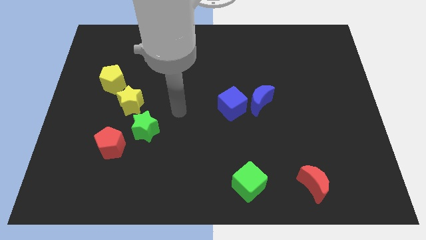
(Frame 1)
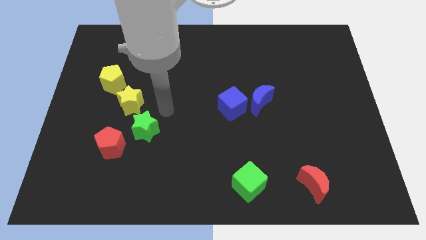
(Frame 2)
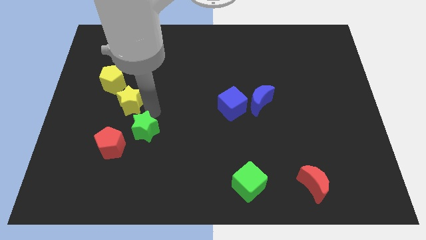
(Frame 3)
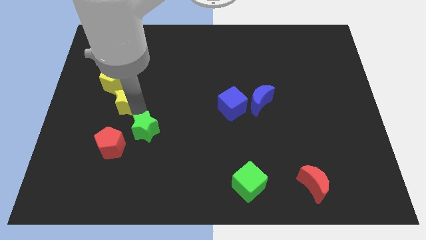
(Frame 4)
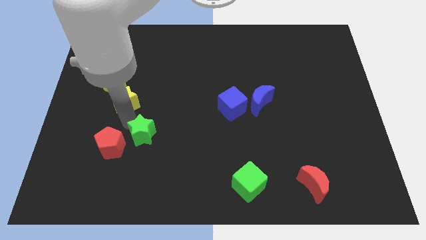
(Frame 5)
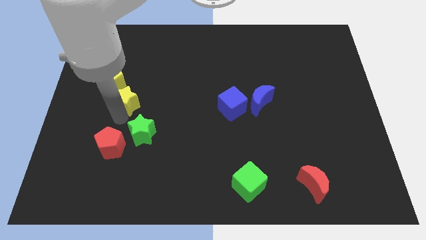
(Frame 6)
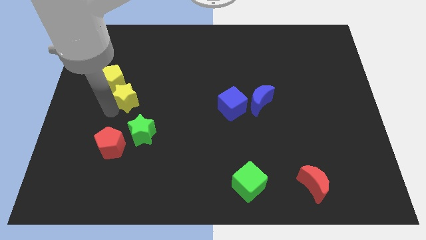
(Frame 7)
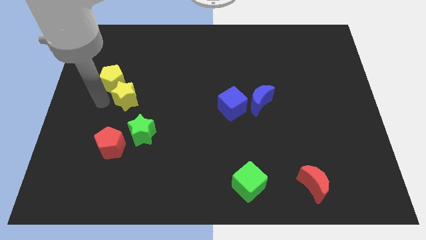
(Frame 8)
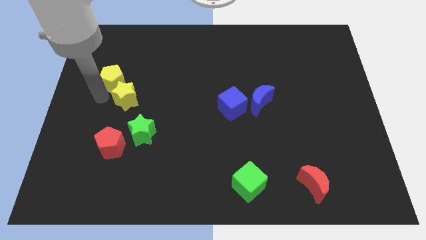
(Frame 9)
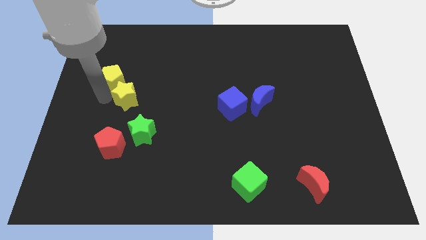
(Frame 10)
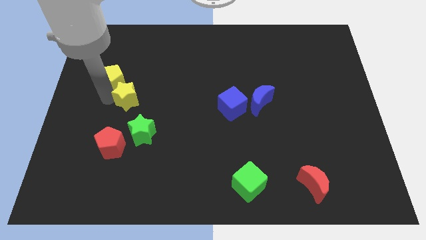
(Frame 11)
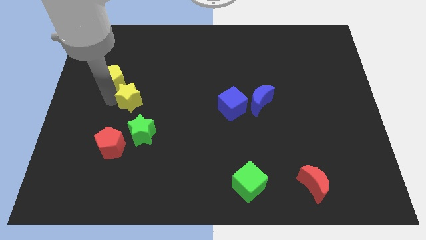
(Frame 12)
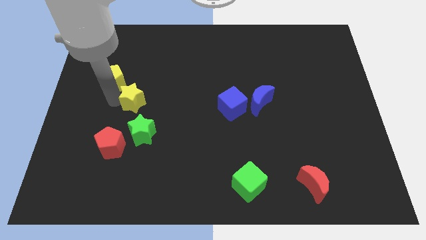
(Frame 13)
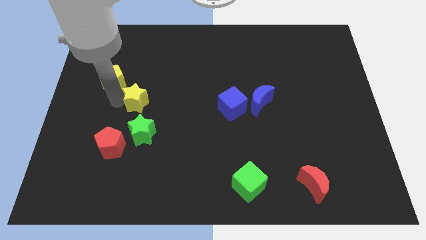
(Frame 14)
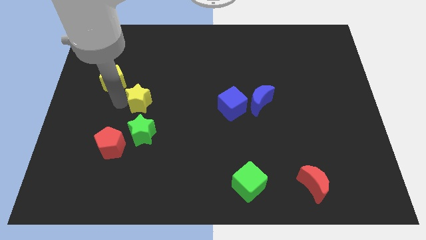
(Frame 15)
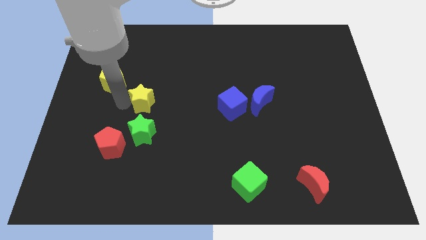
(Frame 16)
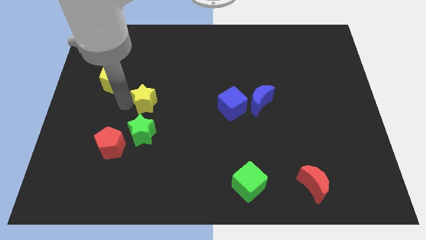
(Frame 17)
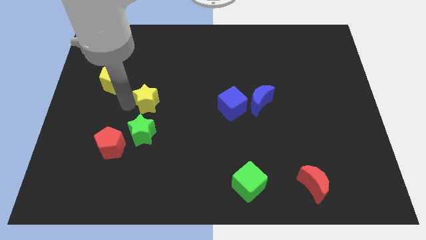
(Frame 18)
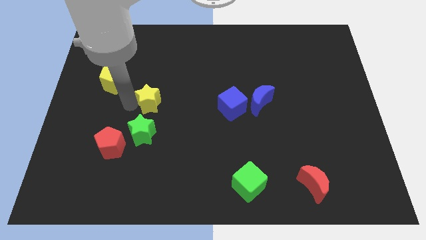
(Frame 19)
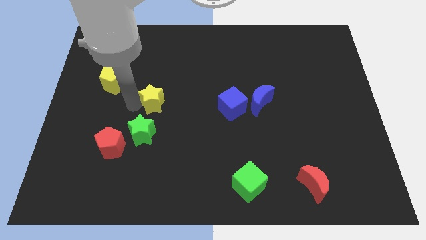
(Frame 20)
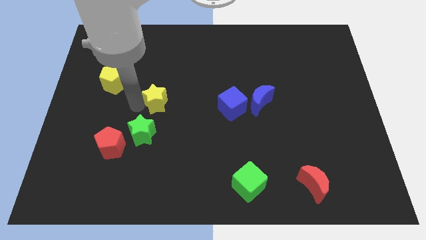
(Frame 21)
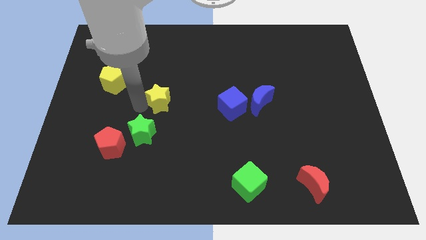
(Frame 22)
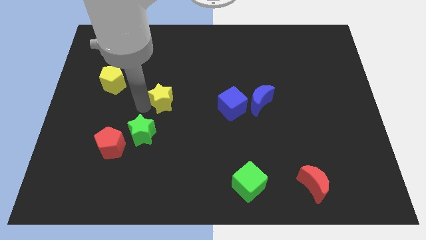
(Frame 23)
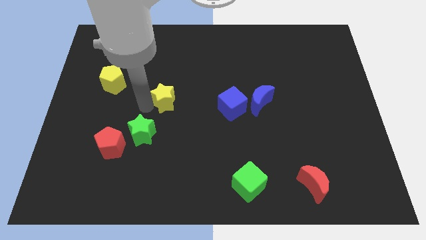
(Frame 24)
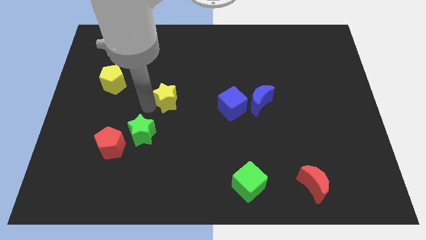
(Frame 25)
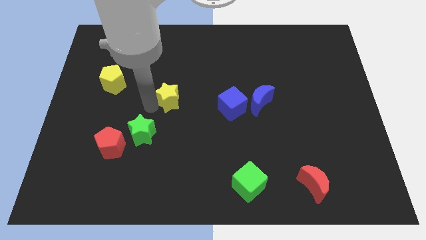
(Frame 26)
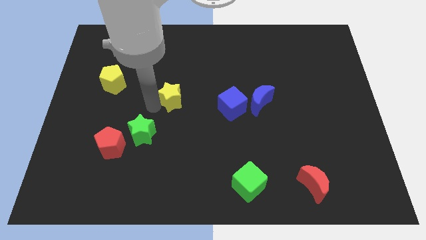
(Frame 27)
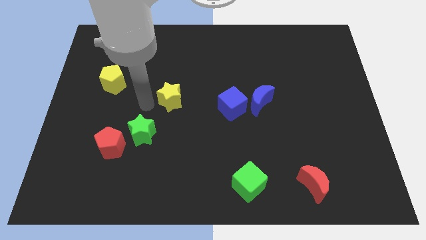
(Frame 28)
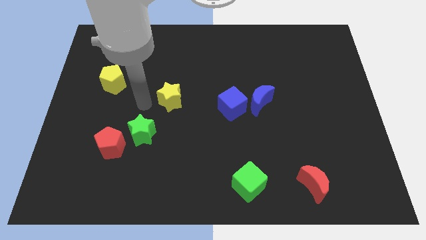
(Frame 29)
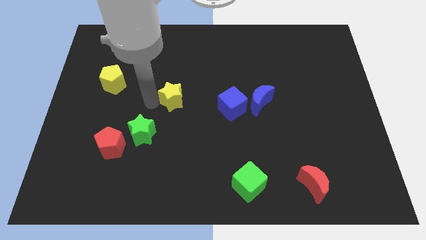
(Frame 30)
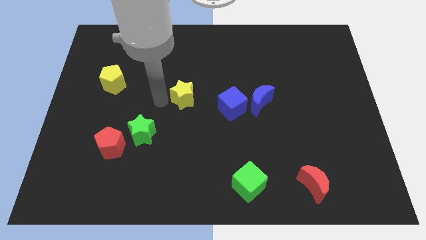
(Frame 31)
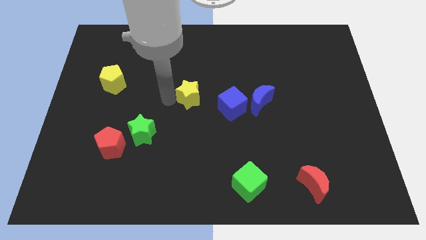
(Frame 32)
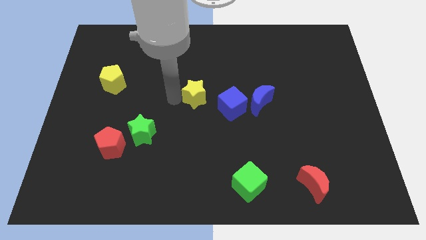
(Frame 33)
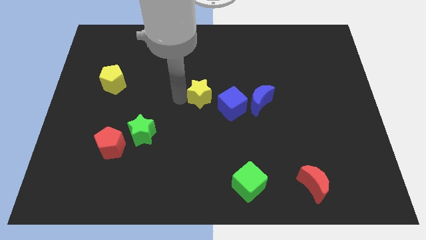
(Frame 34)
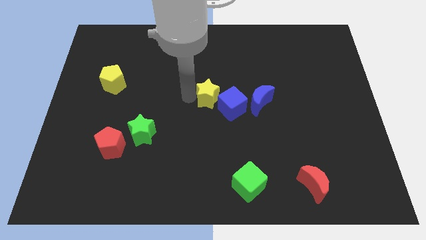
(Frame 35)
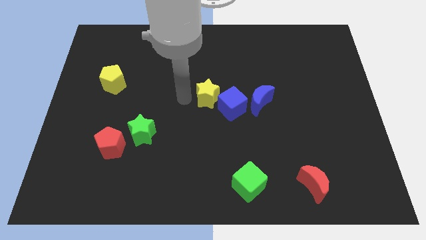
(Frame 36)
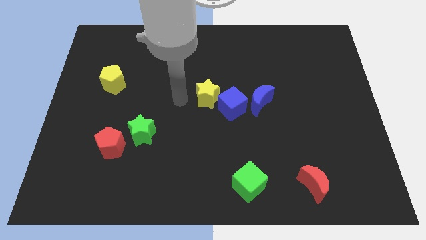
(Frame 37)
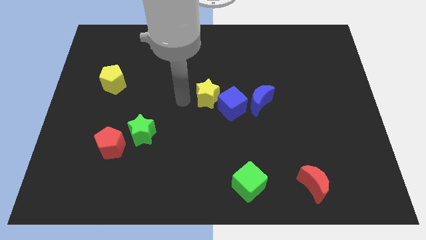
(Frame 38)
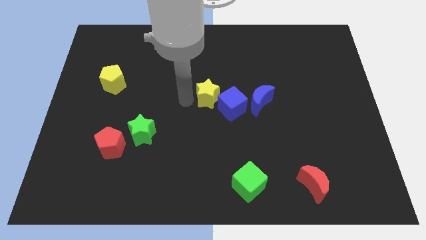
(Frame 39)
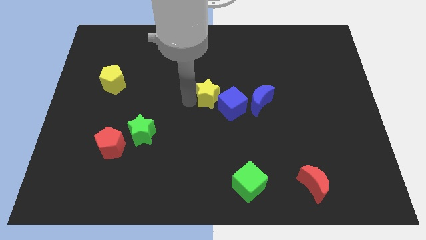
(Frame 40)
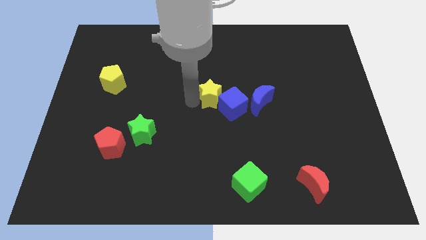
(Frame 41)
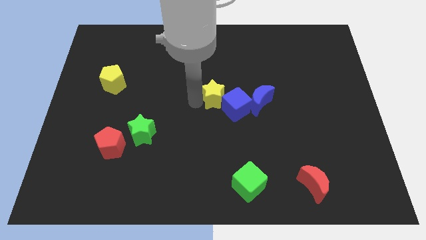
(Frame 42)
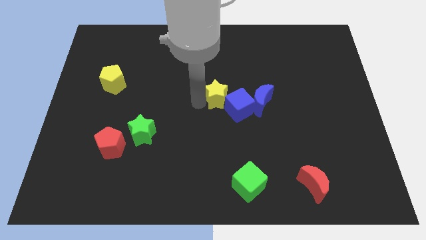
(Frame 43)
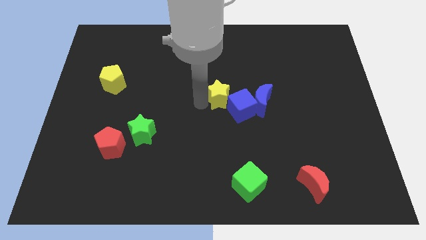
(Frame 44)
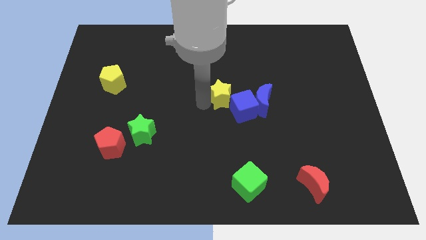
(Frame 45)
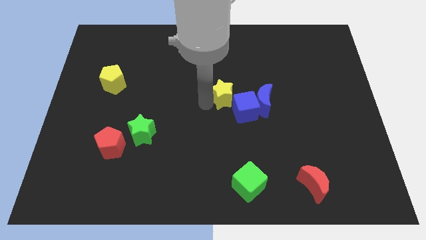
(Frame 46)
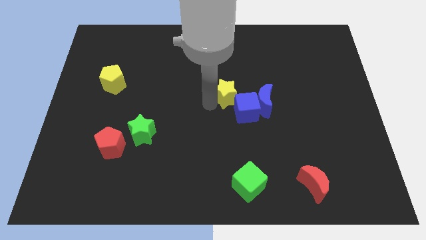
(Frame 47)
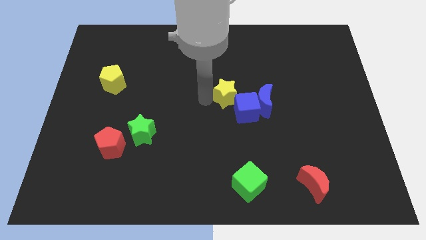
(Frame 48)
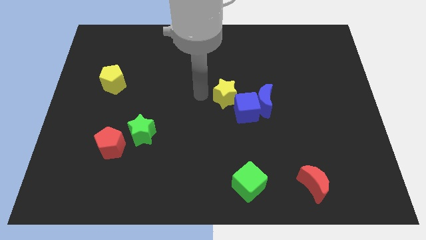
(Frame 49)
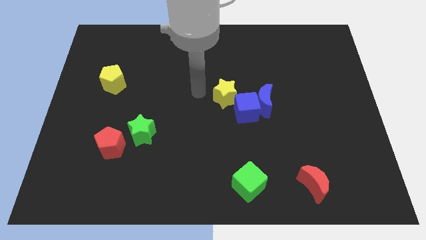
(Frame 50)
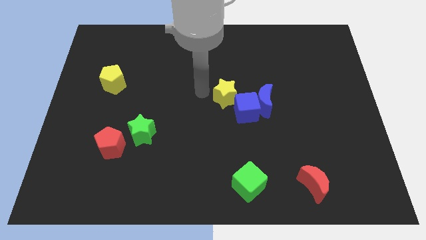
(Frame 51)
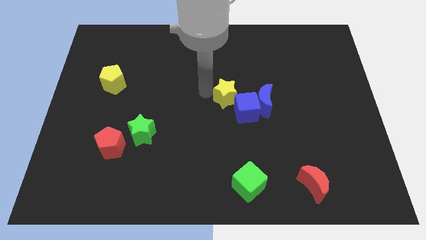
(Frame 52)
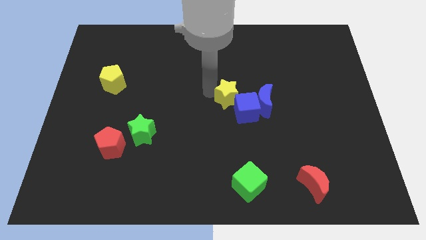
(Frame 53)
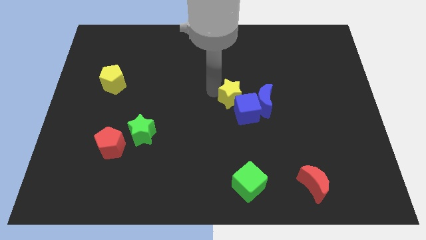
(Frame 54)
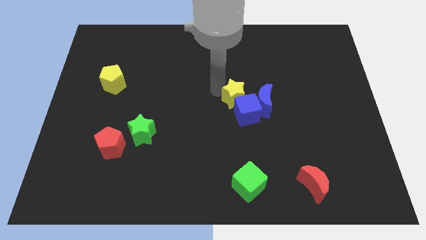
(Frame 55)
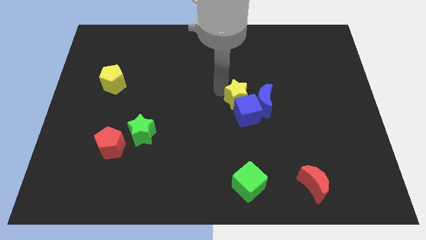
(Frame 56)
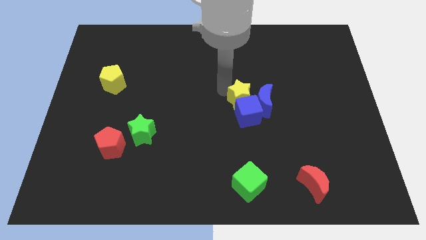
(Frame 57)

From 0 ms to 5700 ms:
put the yellow star towards the blue moon

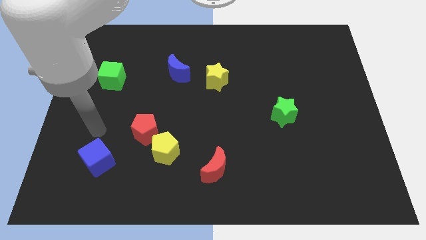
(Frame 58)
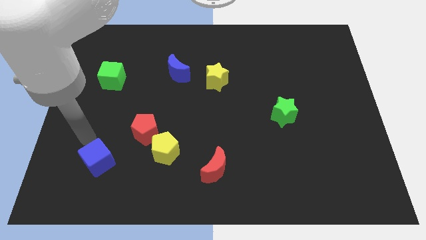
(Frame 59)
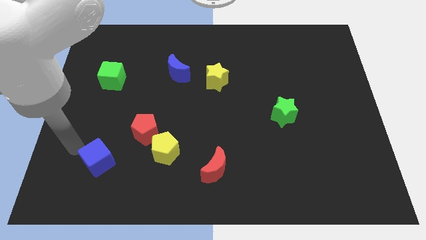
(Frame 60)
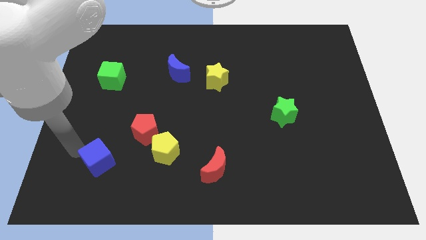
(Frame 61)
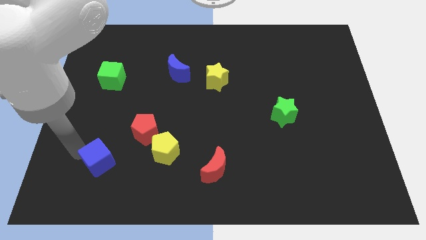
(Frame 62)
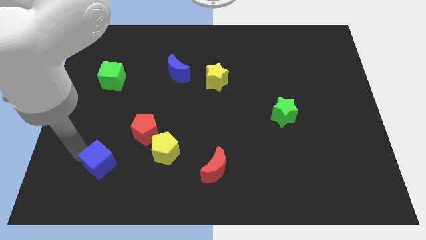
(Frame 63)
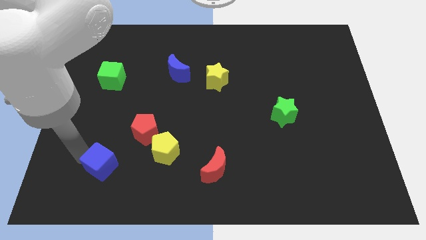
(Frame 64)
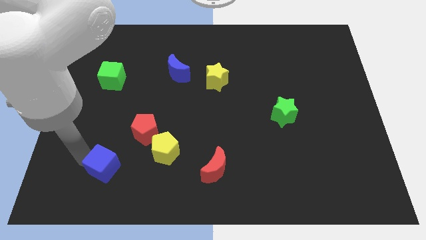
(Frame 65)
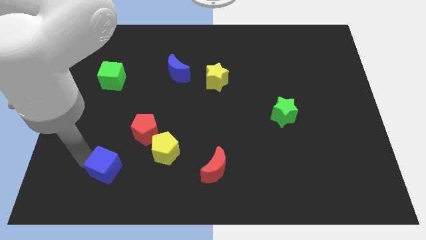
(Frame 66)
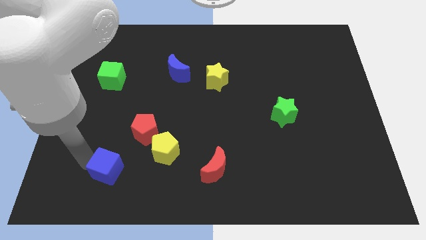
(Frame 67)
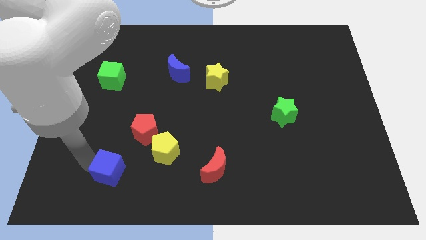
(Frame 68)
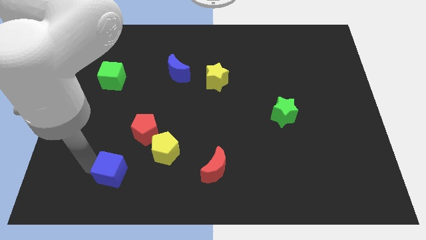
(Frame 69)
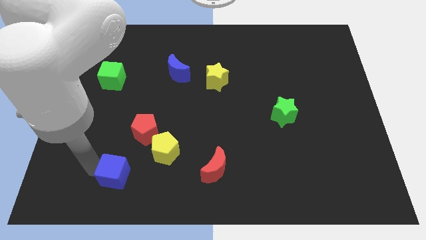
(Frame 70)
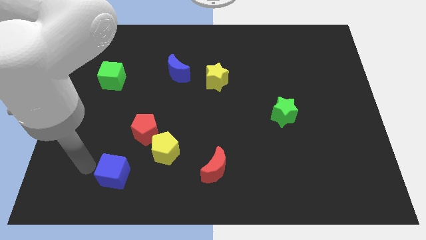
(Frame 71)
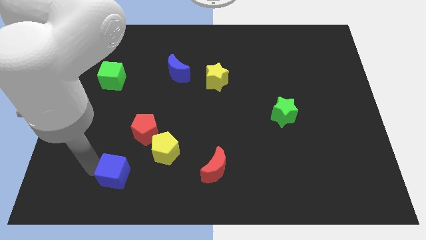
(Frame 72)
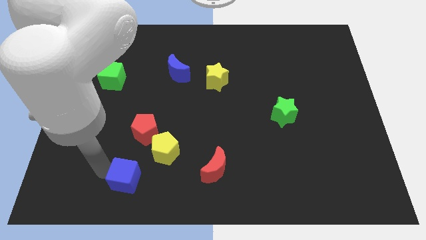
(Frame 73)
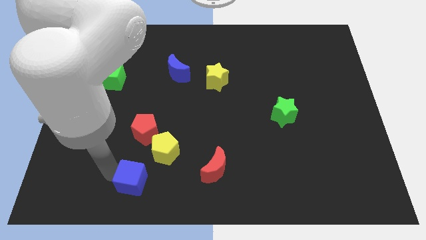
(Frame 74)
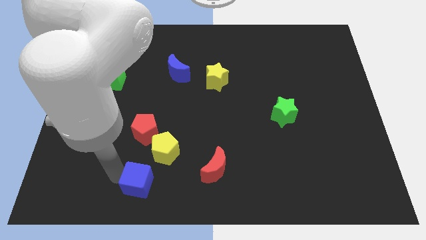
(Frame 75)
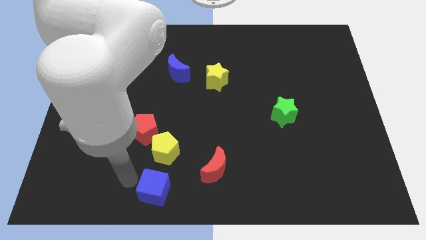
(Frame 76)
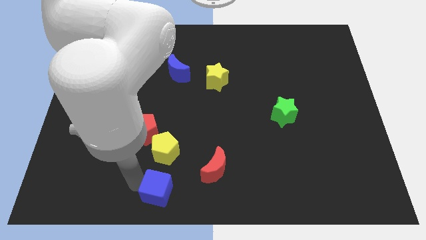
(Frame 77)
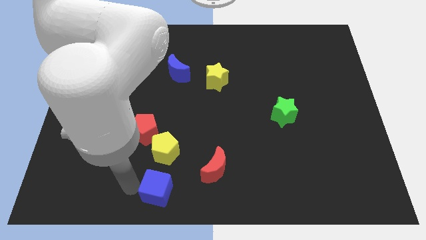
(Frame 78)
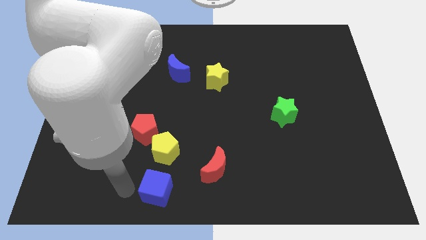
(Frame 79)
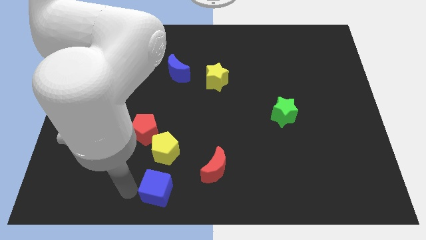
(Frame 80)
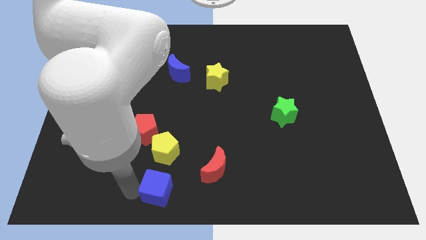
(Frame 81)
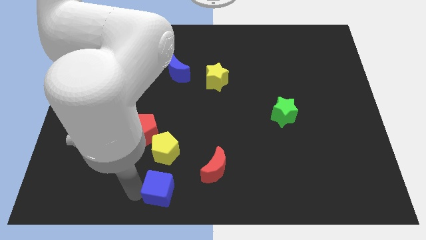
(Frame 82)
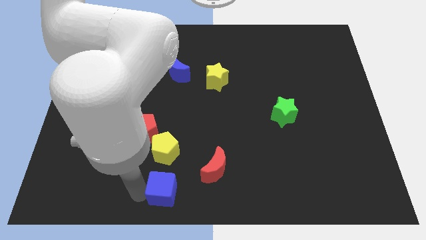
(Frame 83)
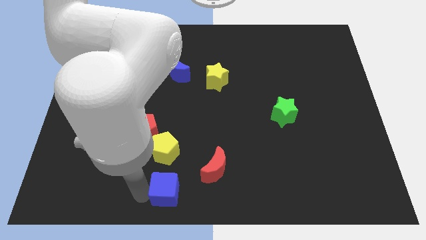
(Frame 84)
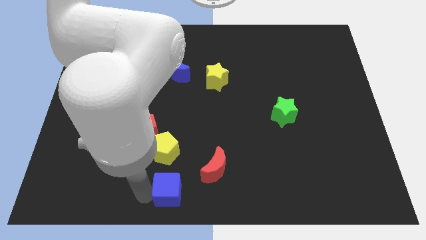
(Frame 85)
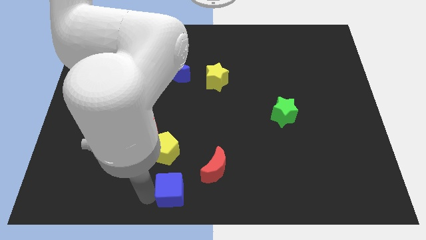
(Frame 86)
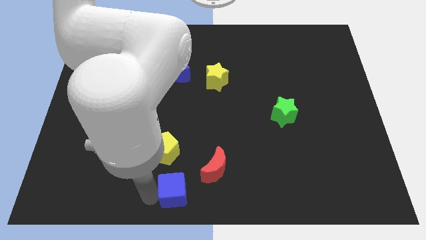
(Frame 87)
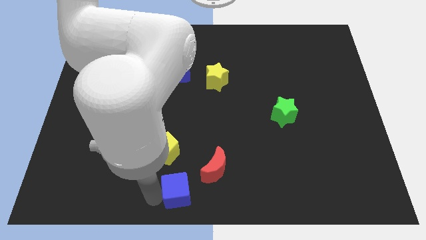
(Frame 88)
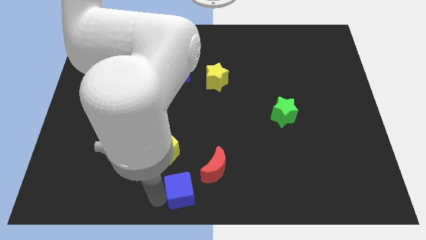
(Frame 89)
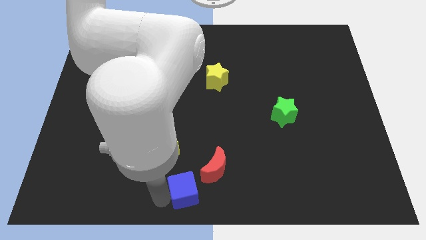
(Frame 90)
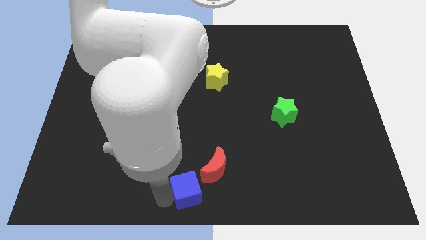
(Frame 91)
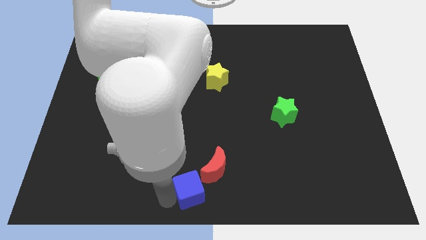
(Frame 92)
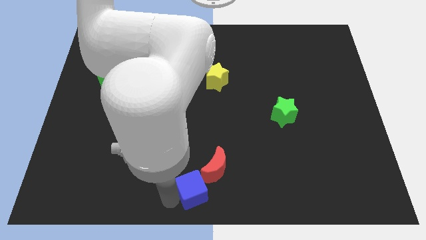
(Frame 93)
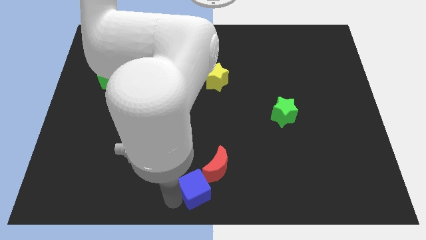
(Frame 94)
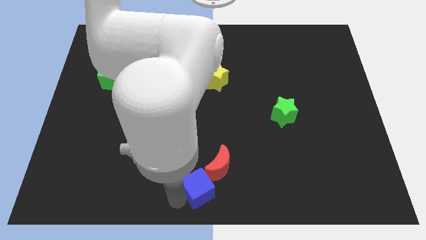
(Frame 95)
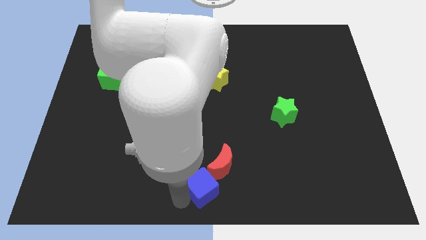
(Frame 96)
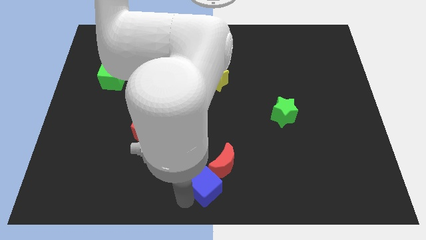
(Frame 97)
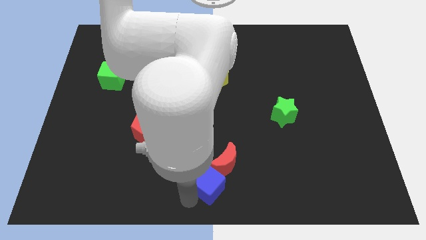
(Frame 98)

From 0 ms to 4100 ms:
slide the blue cube next to the red moon
